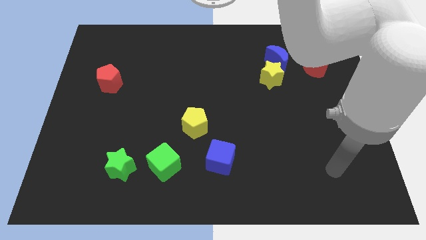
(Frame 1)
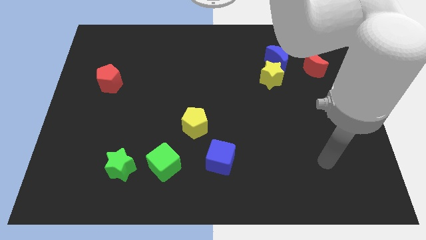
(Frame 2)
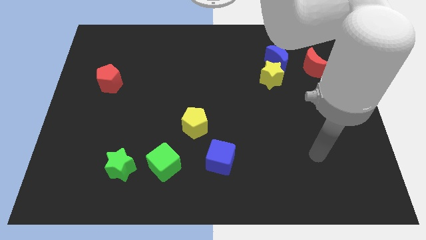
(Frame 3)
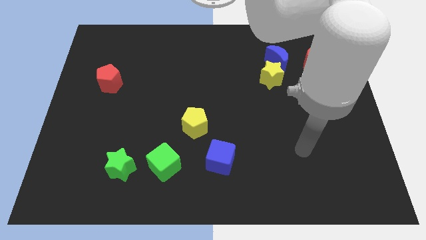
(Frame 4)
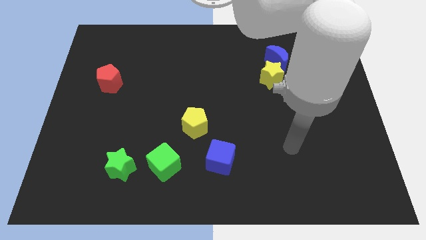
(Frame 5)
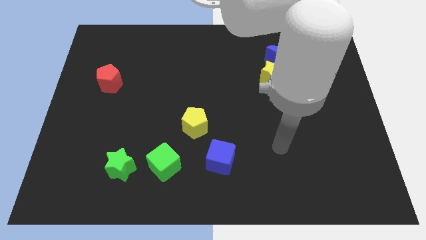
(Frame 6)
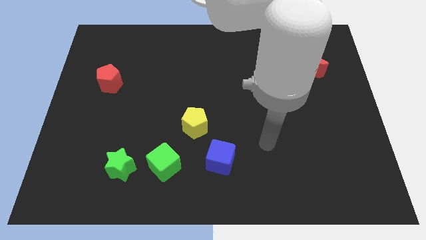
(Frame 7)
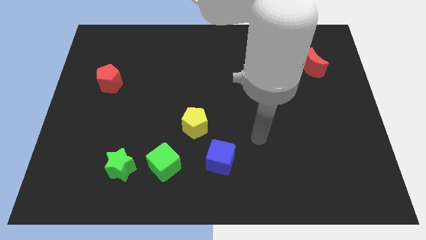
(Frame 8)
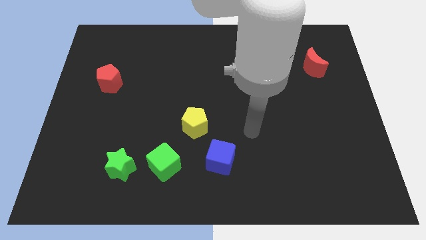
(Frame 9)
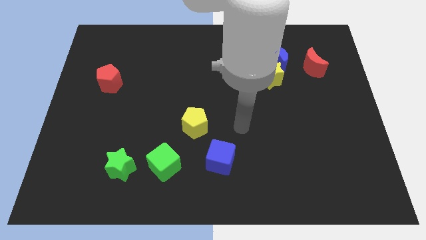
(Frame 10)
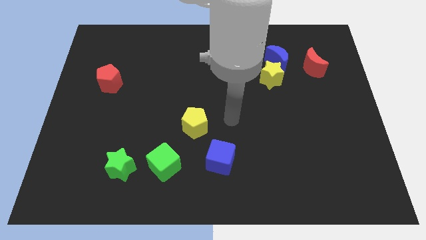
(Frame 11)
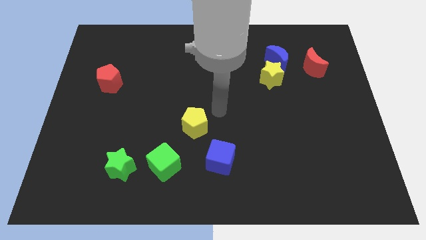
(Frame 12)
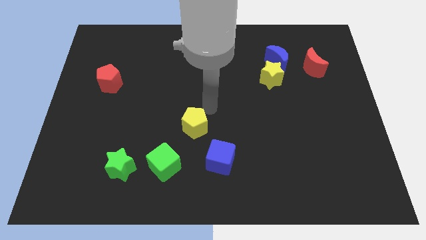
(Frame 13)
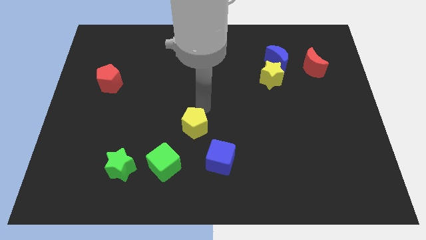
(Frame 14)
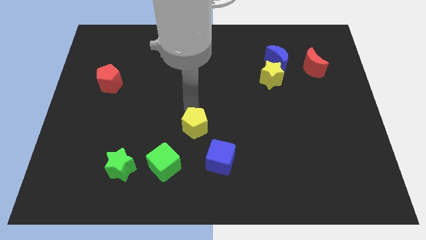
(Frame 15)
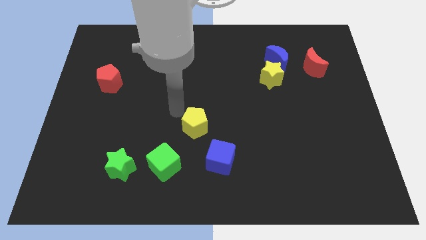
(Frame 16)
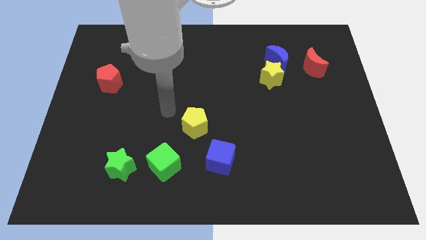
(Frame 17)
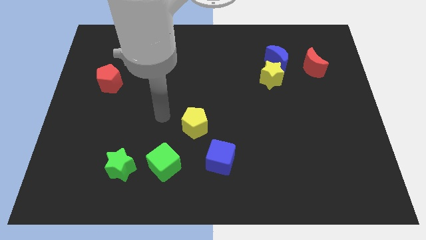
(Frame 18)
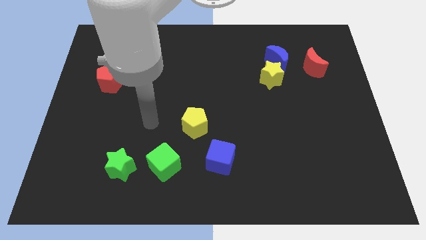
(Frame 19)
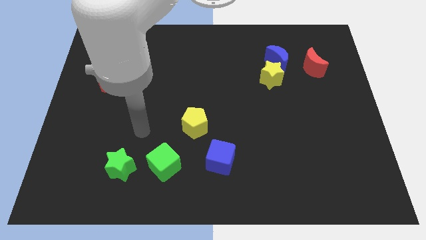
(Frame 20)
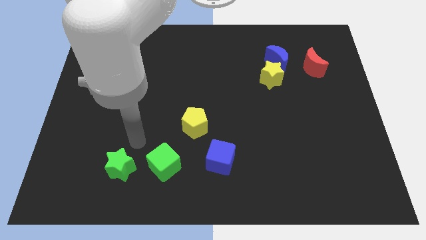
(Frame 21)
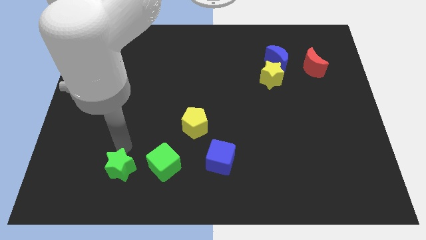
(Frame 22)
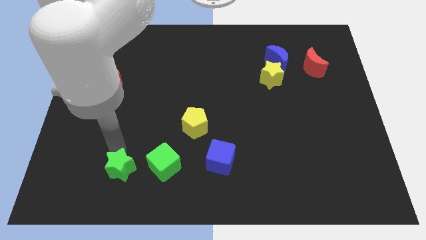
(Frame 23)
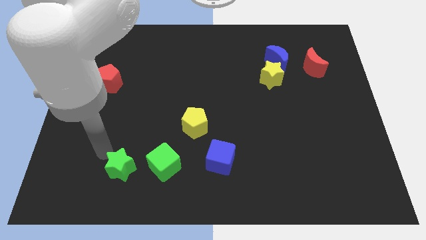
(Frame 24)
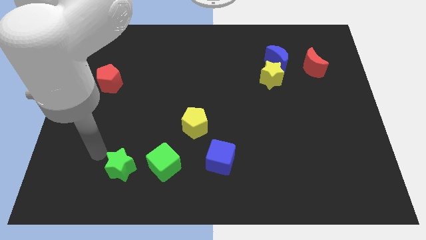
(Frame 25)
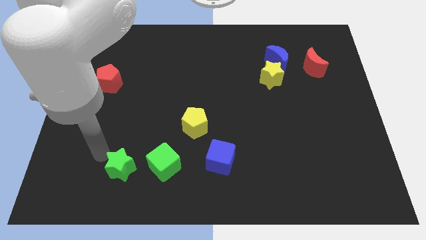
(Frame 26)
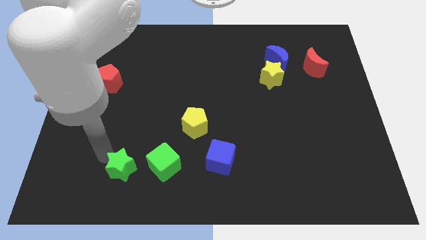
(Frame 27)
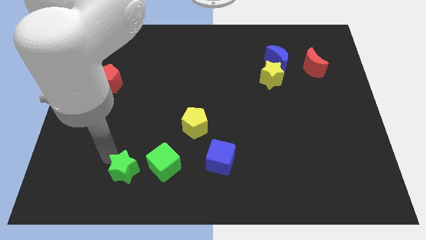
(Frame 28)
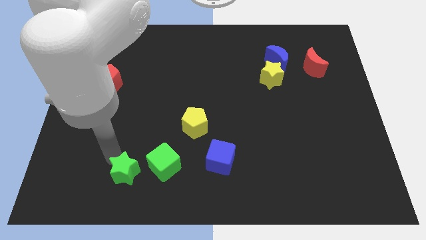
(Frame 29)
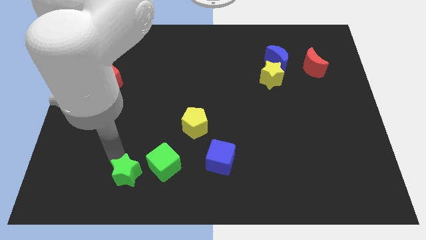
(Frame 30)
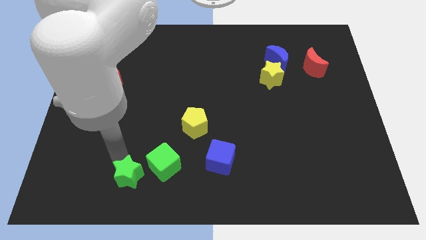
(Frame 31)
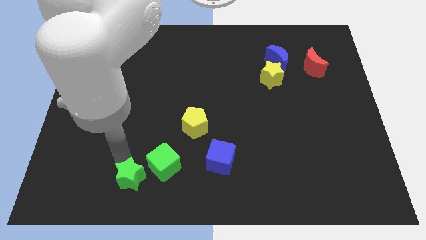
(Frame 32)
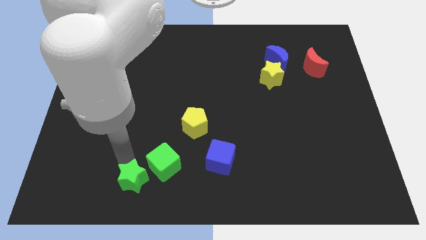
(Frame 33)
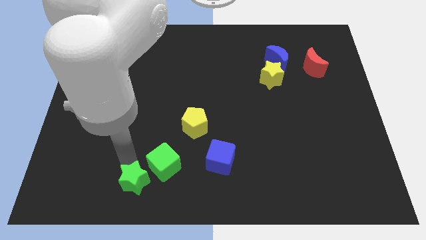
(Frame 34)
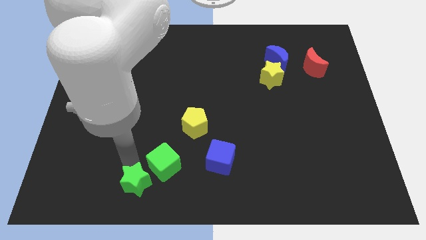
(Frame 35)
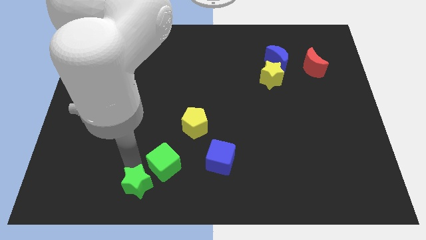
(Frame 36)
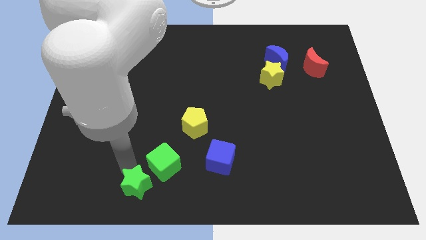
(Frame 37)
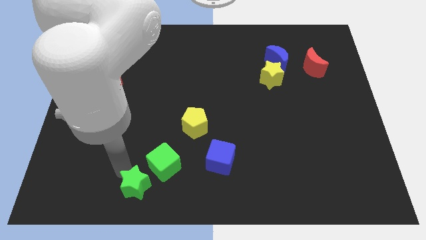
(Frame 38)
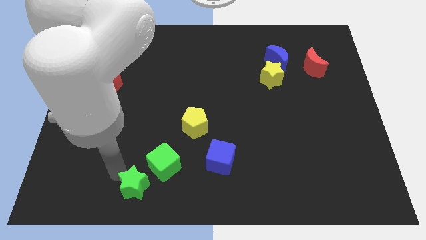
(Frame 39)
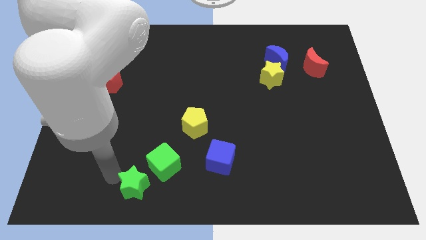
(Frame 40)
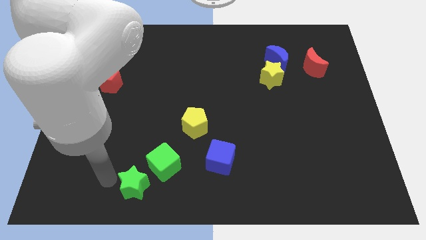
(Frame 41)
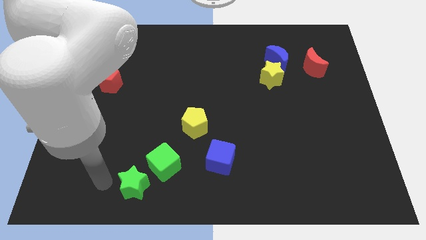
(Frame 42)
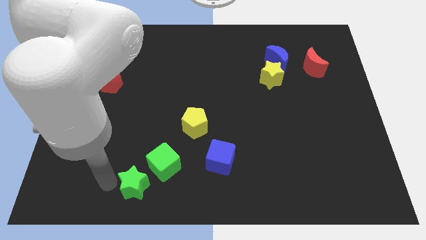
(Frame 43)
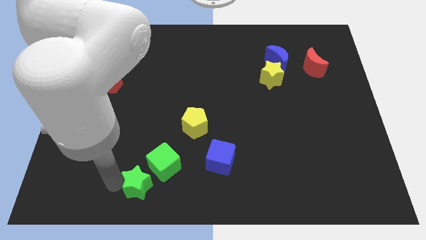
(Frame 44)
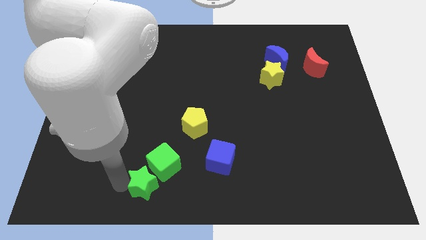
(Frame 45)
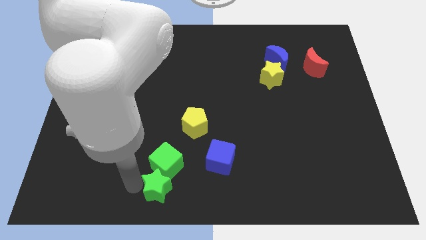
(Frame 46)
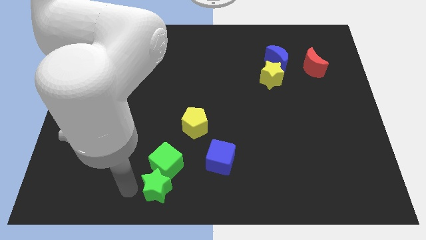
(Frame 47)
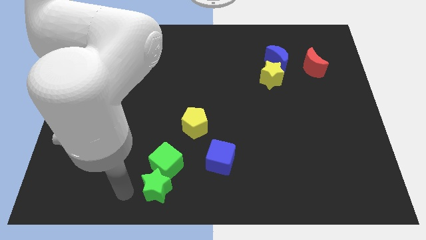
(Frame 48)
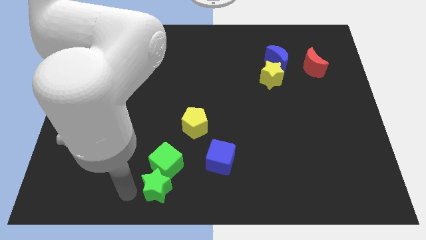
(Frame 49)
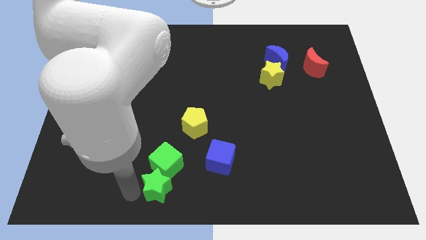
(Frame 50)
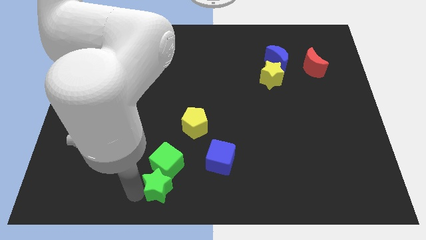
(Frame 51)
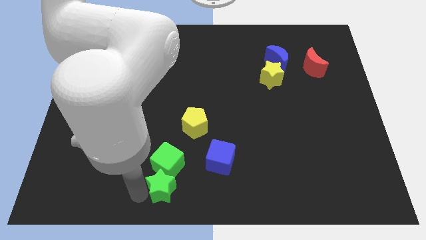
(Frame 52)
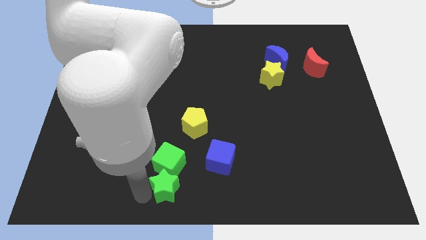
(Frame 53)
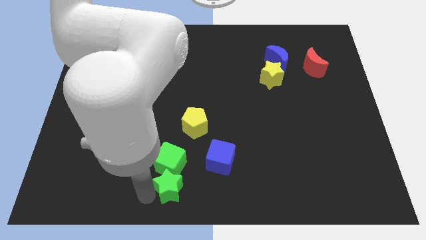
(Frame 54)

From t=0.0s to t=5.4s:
put the green star to the bottom left of the blue cube

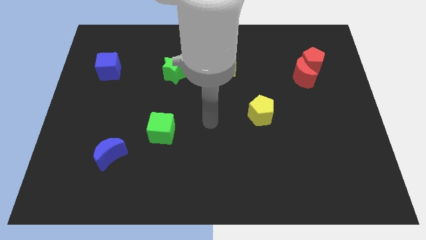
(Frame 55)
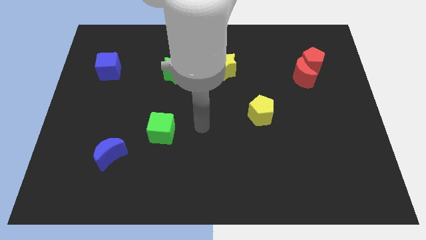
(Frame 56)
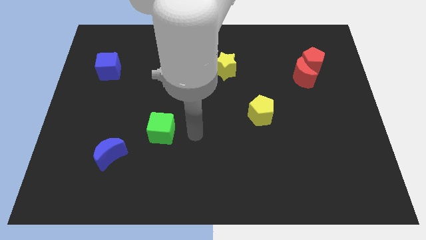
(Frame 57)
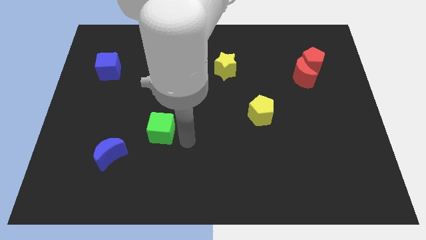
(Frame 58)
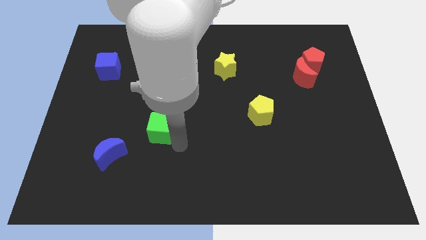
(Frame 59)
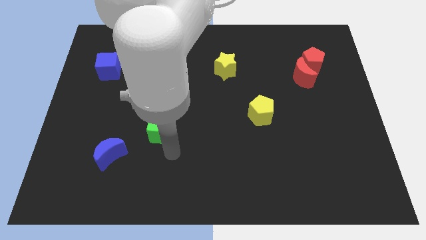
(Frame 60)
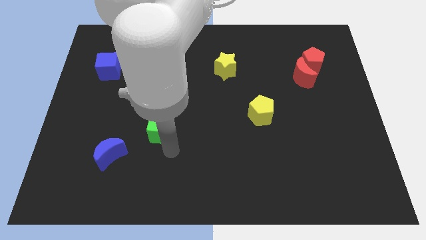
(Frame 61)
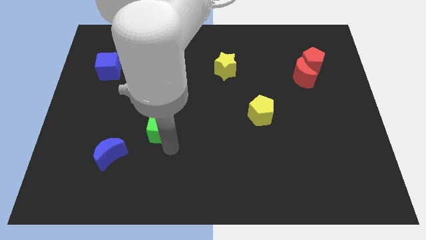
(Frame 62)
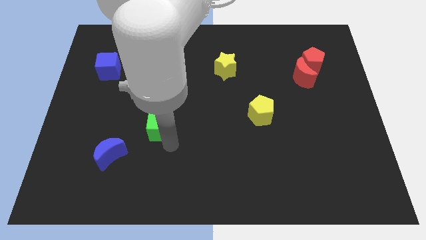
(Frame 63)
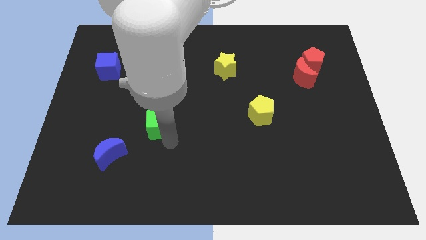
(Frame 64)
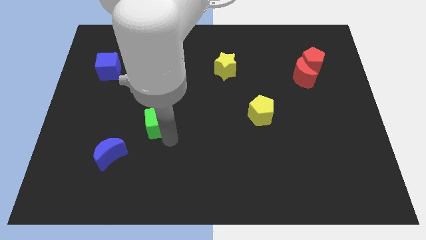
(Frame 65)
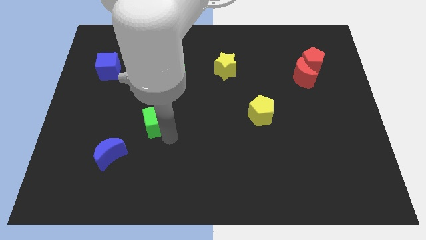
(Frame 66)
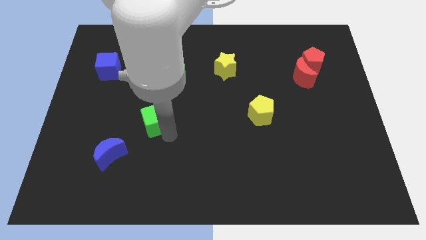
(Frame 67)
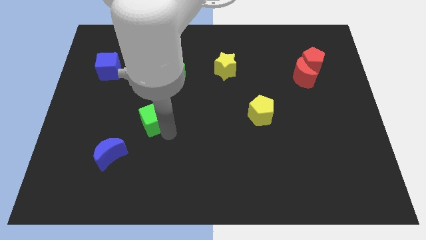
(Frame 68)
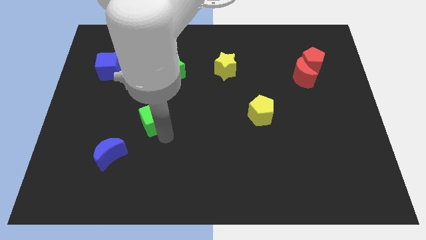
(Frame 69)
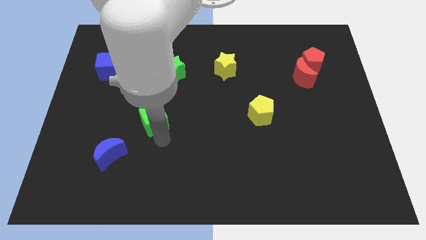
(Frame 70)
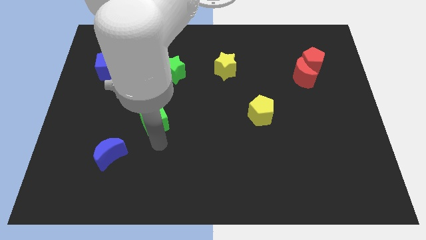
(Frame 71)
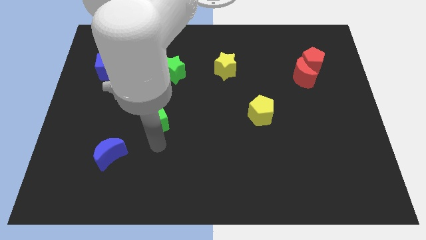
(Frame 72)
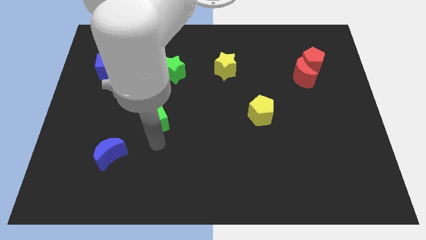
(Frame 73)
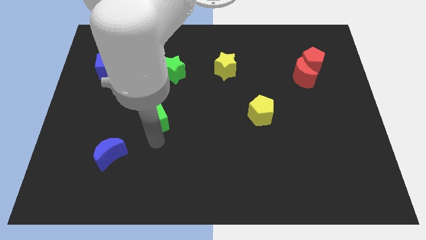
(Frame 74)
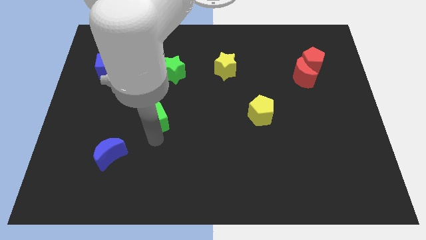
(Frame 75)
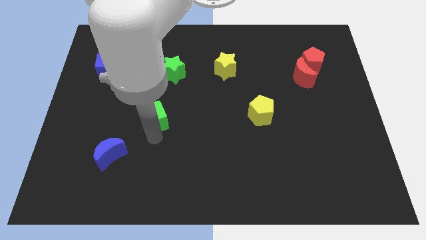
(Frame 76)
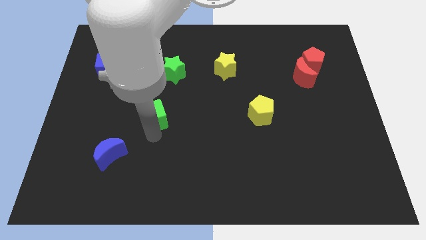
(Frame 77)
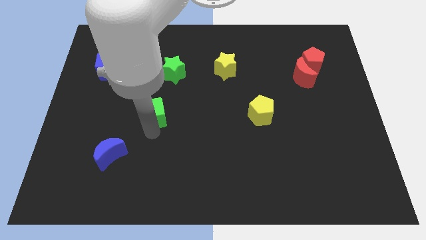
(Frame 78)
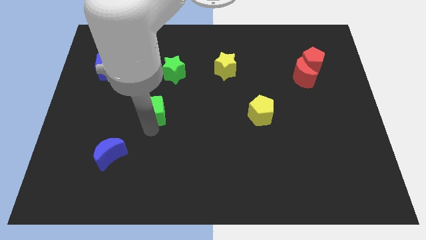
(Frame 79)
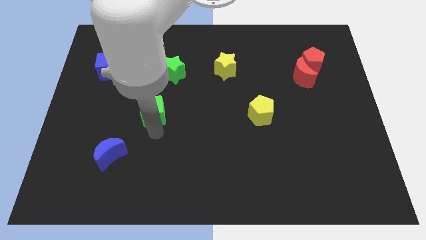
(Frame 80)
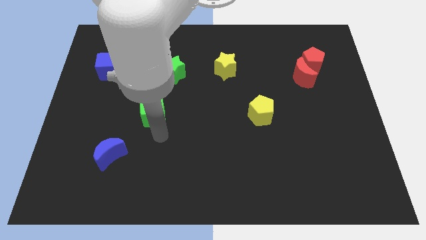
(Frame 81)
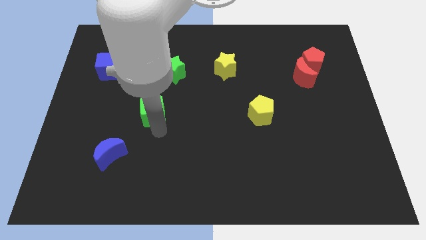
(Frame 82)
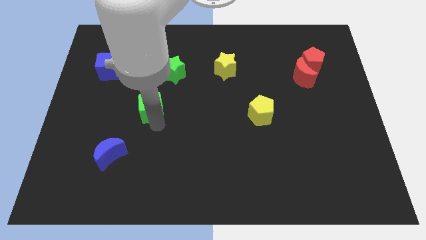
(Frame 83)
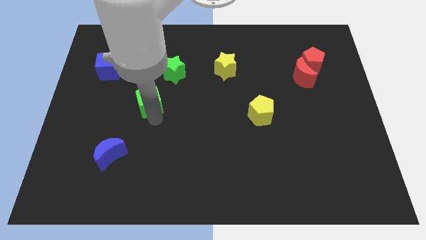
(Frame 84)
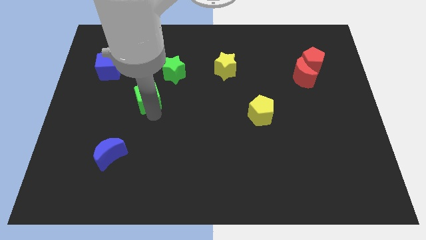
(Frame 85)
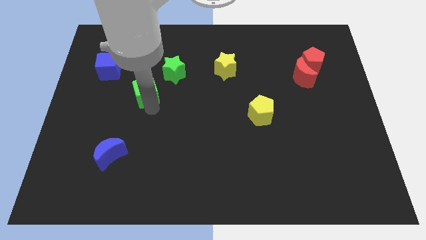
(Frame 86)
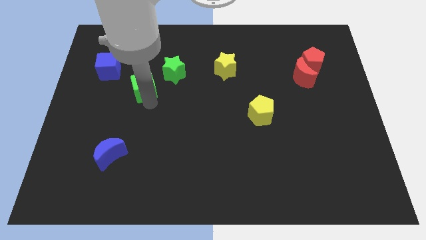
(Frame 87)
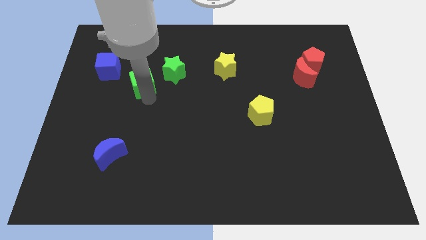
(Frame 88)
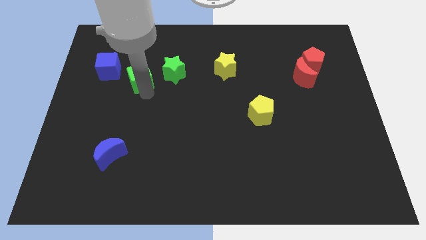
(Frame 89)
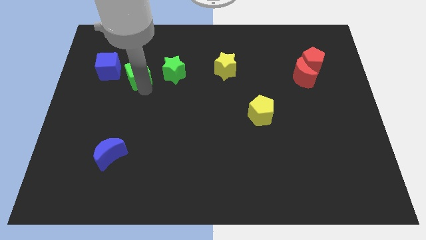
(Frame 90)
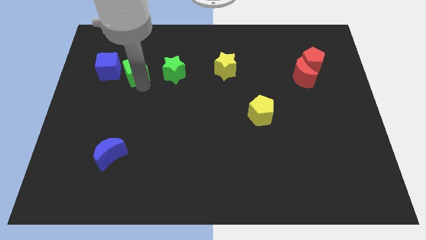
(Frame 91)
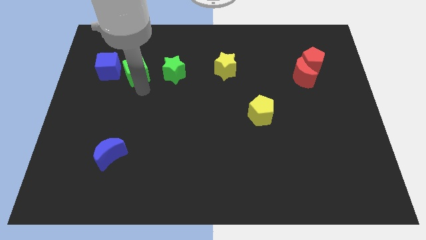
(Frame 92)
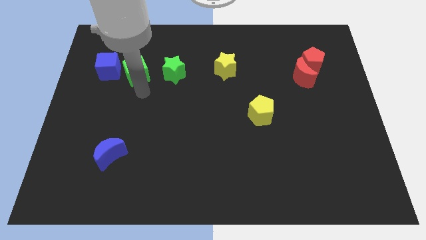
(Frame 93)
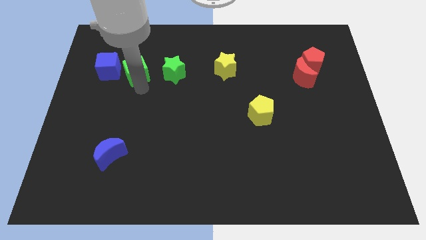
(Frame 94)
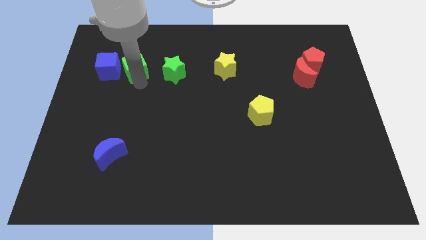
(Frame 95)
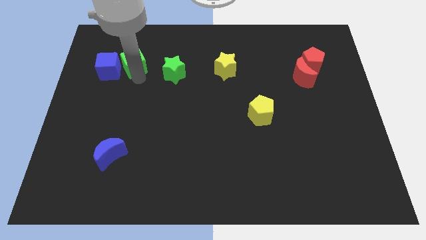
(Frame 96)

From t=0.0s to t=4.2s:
push the green cube to the top right of the blue cube
